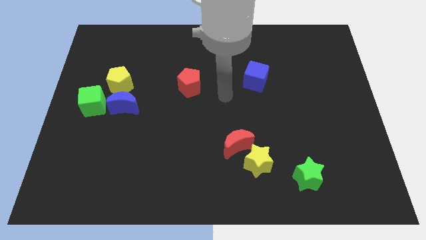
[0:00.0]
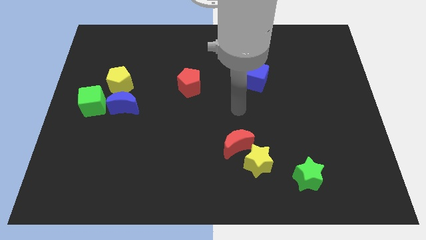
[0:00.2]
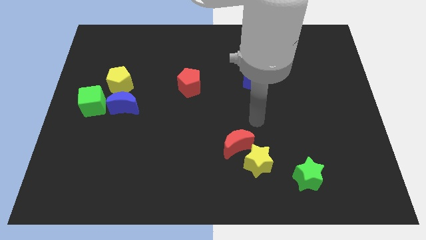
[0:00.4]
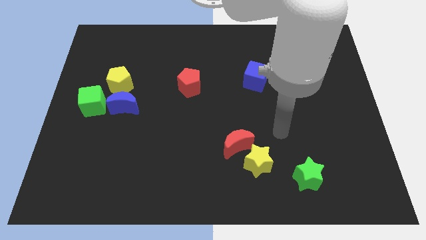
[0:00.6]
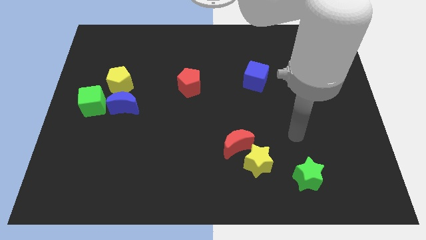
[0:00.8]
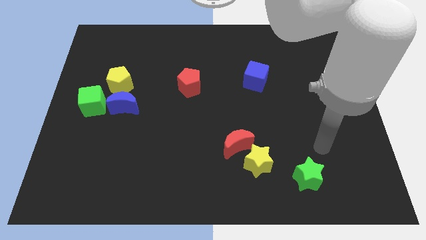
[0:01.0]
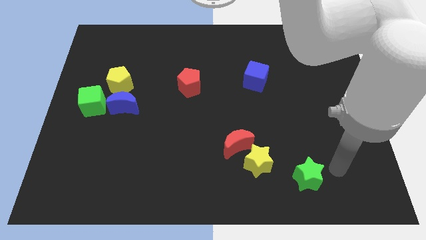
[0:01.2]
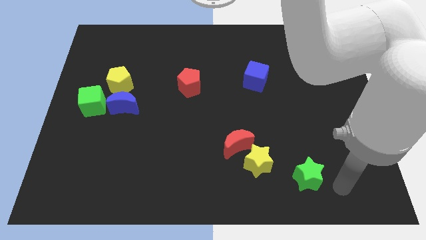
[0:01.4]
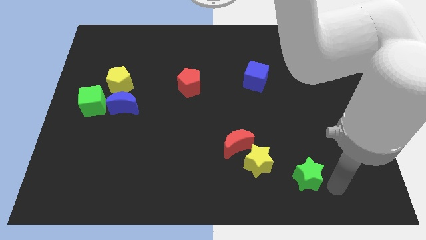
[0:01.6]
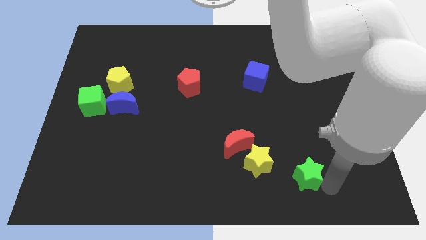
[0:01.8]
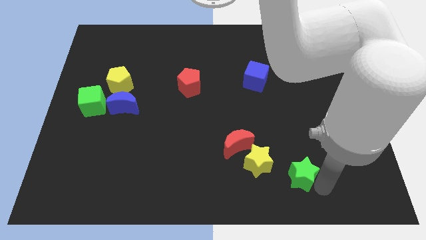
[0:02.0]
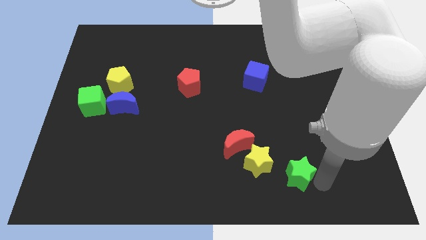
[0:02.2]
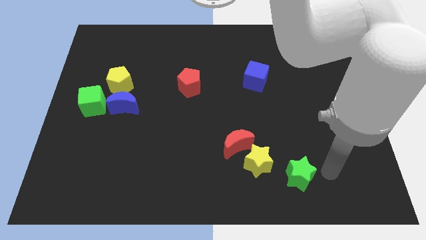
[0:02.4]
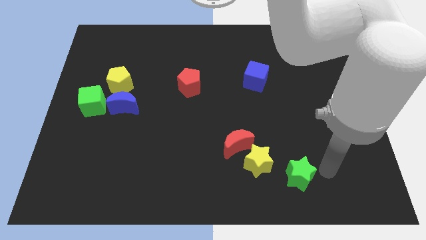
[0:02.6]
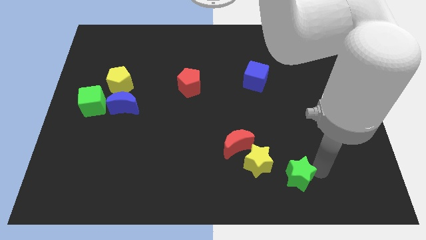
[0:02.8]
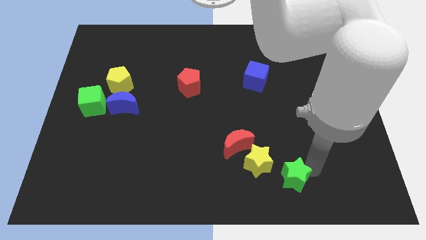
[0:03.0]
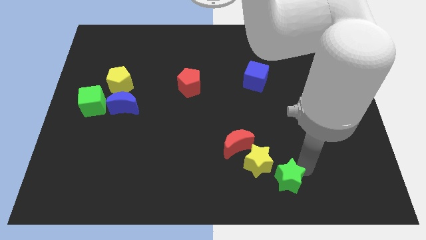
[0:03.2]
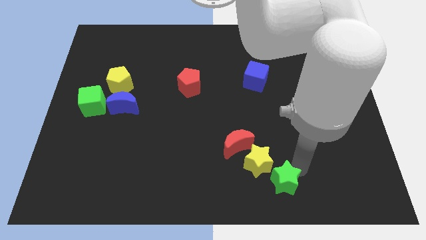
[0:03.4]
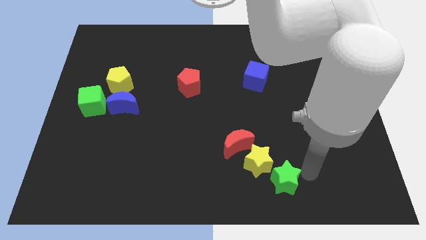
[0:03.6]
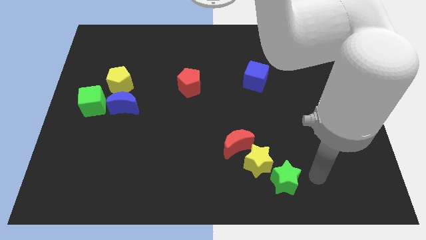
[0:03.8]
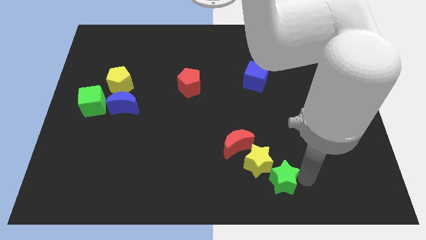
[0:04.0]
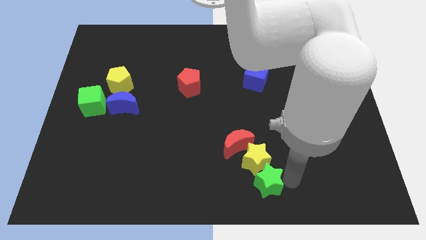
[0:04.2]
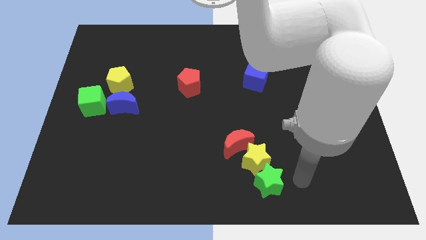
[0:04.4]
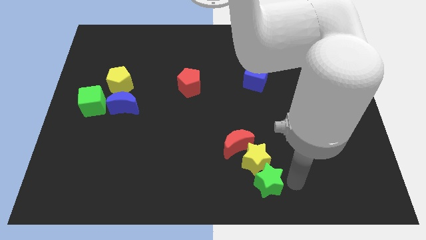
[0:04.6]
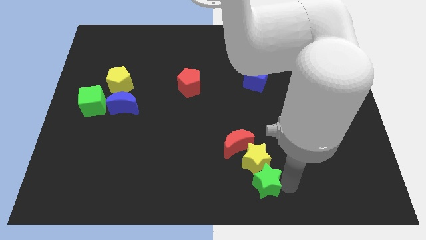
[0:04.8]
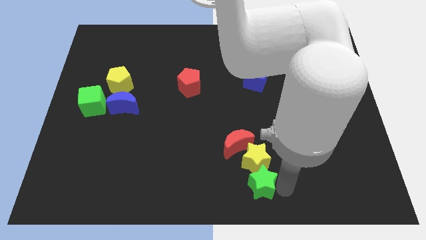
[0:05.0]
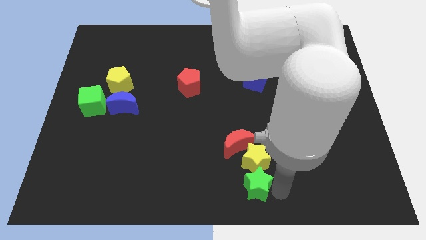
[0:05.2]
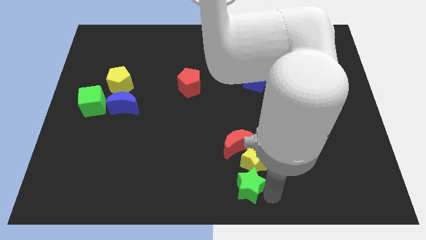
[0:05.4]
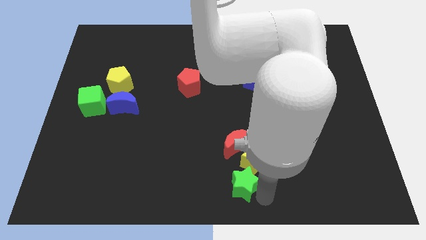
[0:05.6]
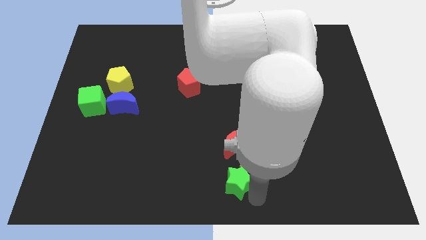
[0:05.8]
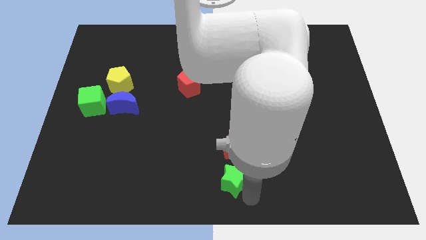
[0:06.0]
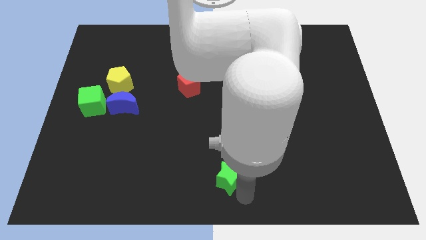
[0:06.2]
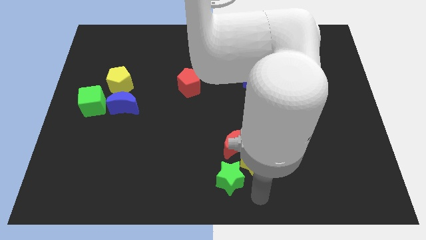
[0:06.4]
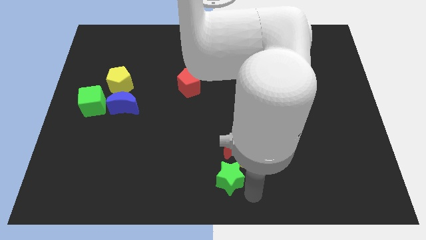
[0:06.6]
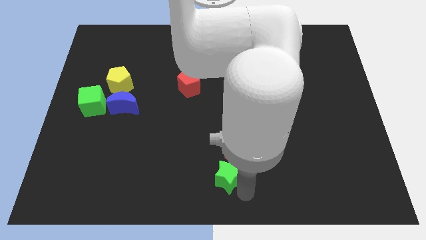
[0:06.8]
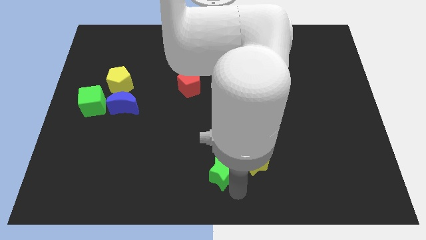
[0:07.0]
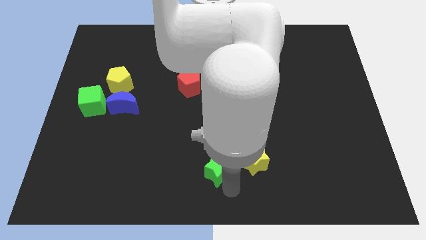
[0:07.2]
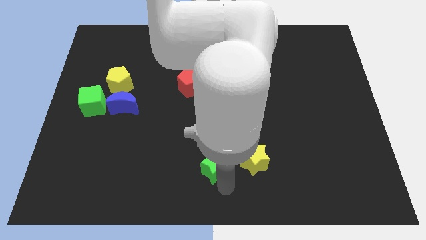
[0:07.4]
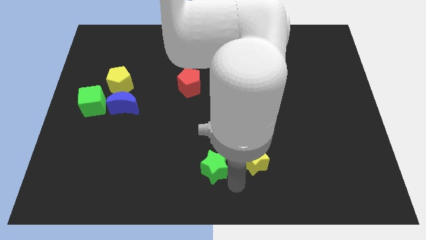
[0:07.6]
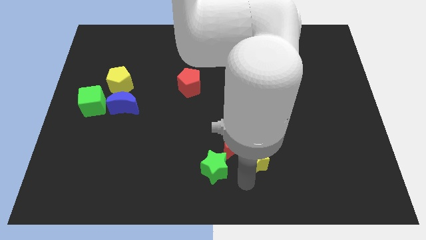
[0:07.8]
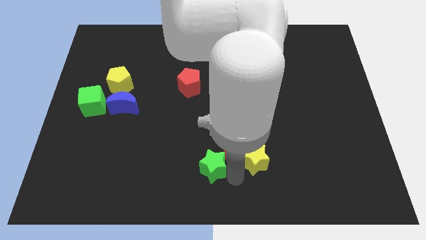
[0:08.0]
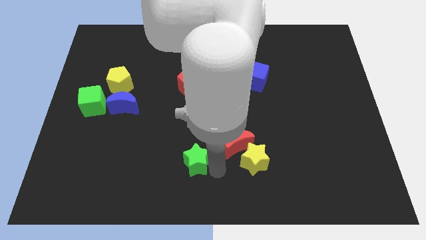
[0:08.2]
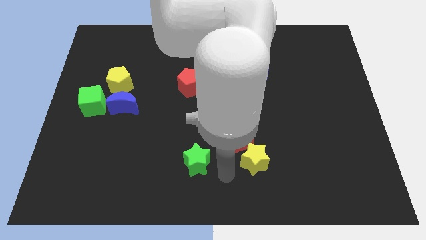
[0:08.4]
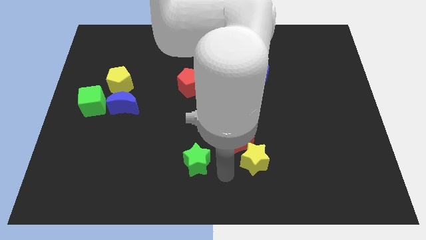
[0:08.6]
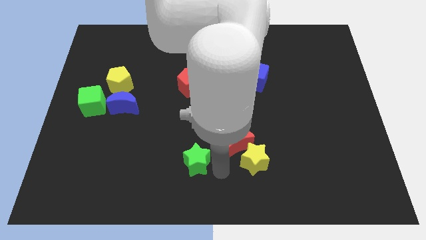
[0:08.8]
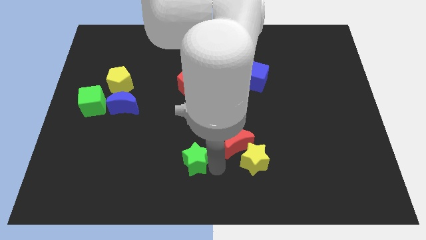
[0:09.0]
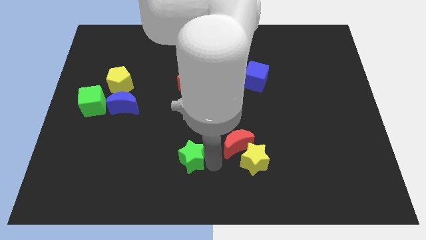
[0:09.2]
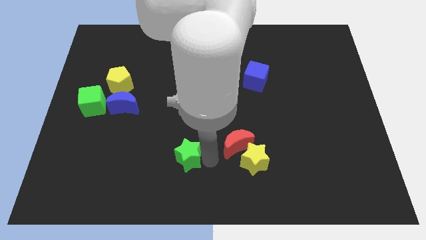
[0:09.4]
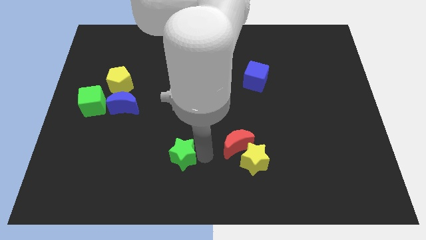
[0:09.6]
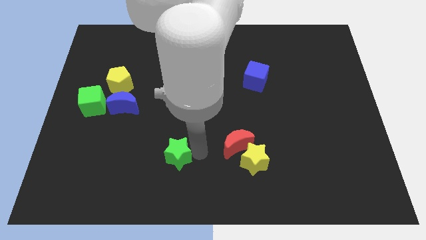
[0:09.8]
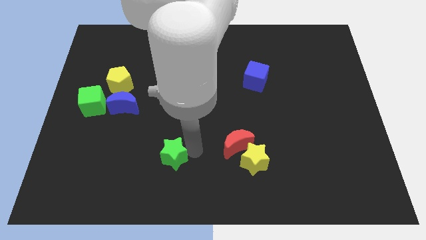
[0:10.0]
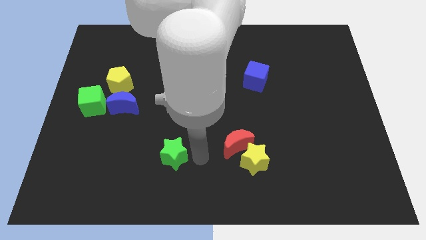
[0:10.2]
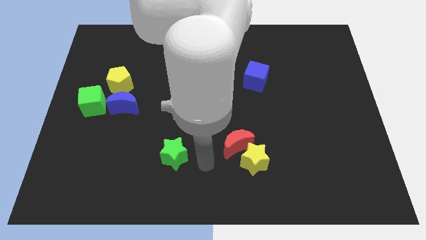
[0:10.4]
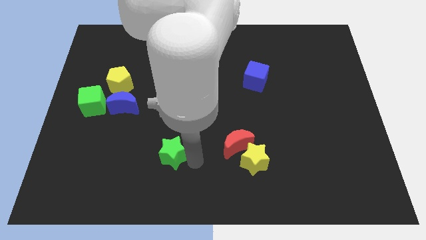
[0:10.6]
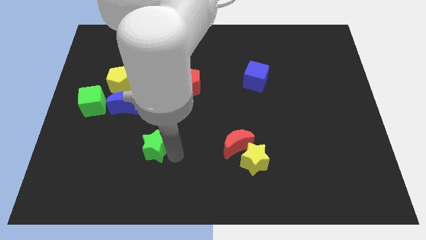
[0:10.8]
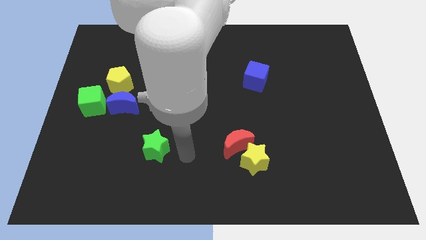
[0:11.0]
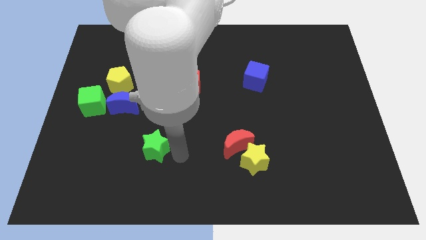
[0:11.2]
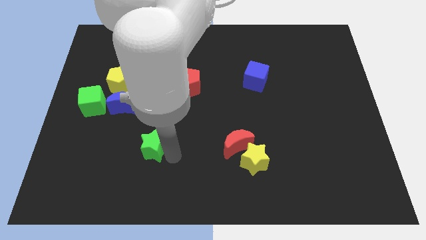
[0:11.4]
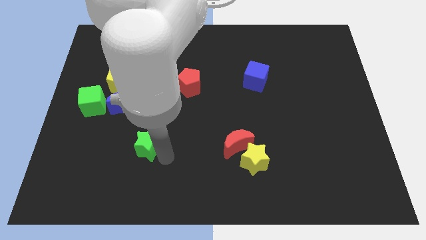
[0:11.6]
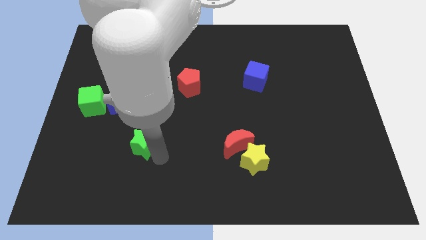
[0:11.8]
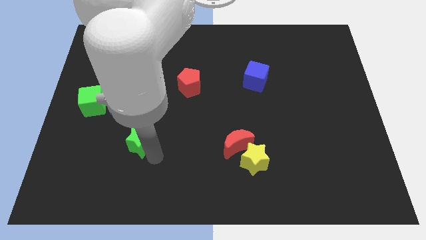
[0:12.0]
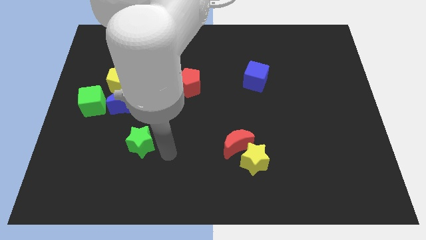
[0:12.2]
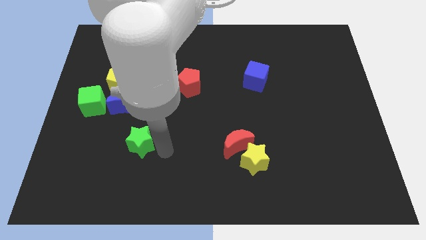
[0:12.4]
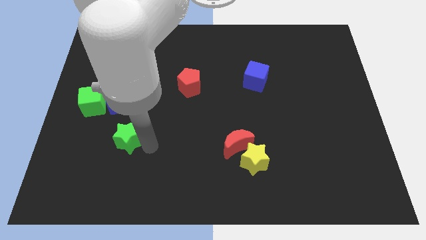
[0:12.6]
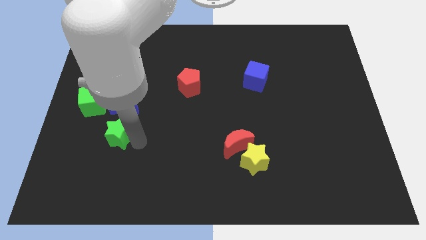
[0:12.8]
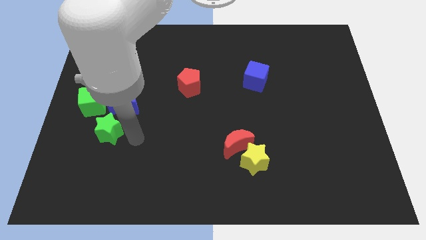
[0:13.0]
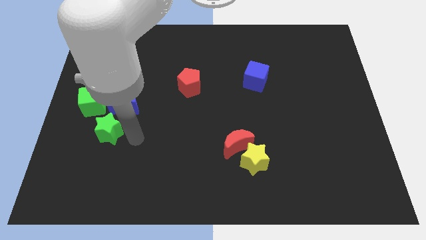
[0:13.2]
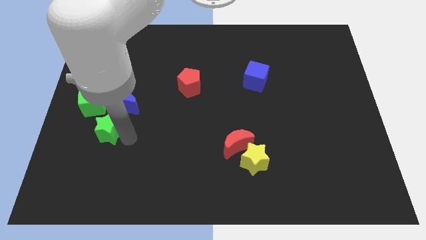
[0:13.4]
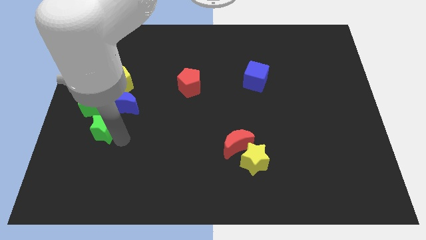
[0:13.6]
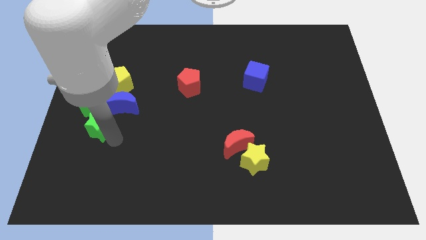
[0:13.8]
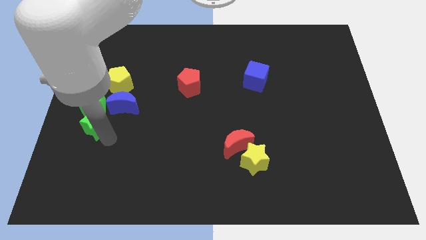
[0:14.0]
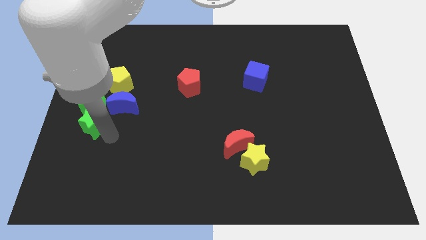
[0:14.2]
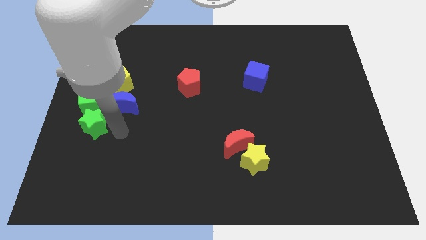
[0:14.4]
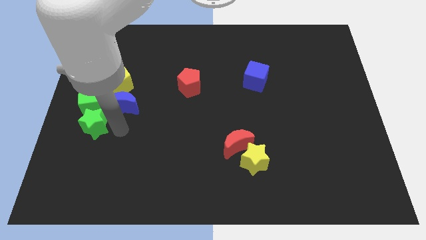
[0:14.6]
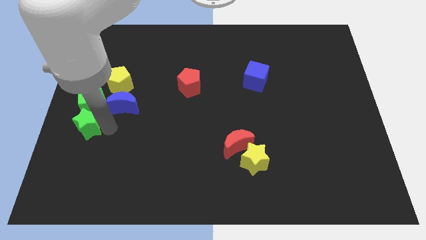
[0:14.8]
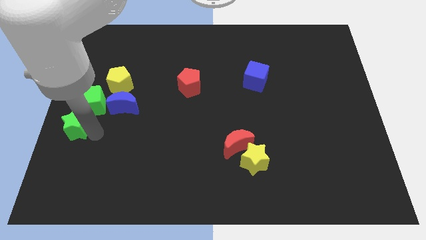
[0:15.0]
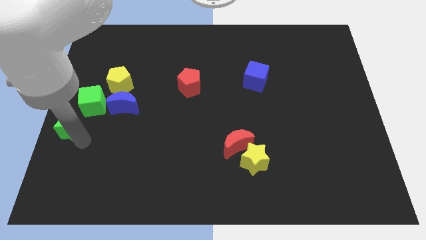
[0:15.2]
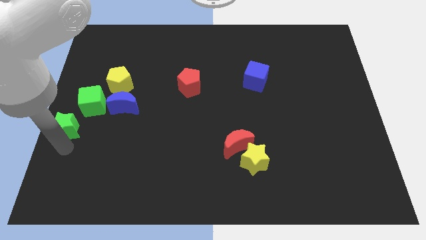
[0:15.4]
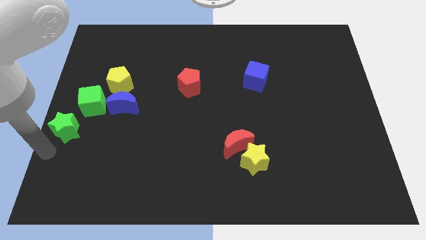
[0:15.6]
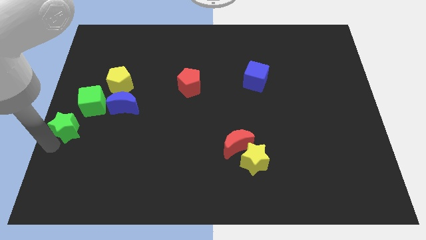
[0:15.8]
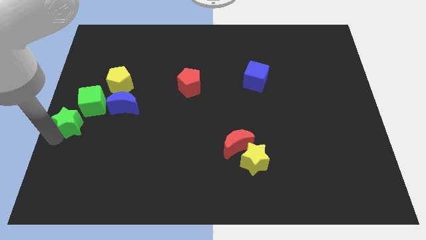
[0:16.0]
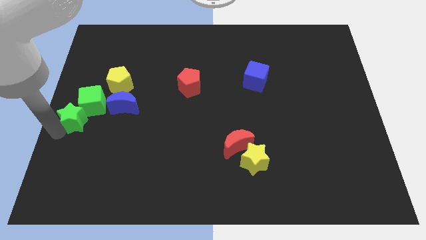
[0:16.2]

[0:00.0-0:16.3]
put the green star close to the green cube
